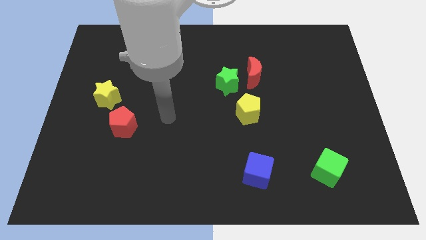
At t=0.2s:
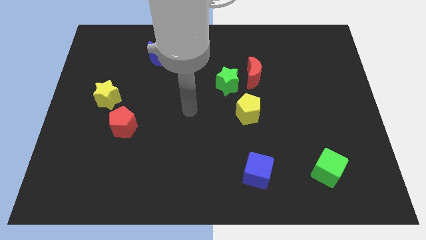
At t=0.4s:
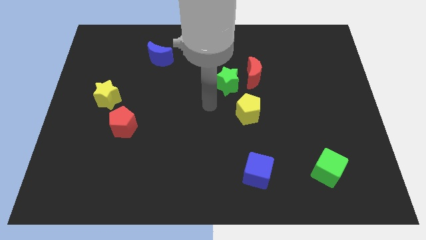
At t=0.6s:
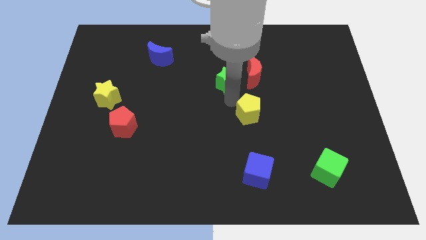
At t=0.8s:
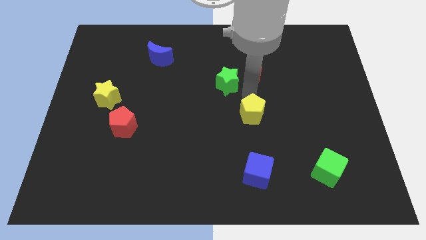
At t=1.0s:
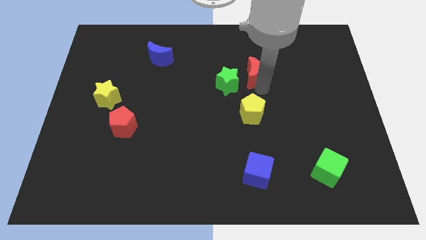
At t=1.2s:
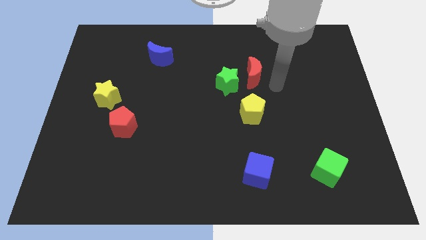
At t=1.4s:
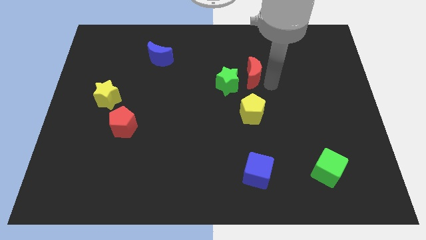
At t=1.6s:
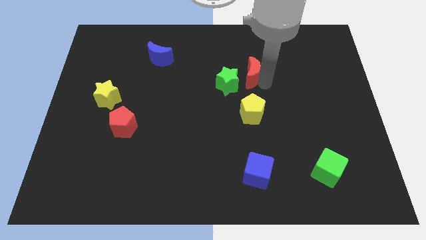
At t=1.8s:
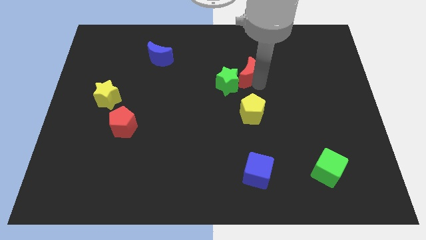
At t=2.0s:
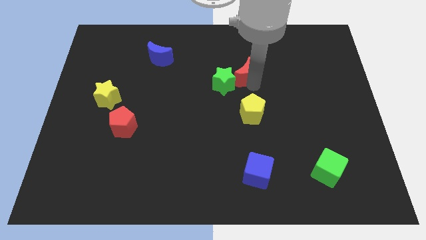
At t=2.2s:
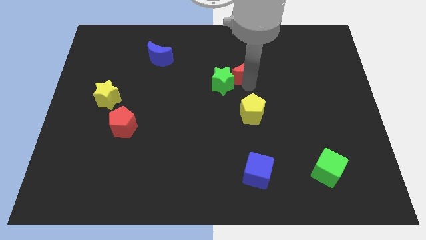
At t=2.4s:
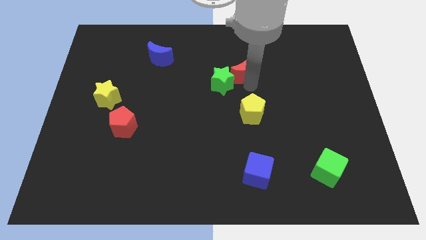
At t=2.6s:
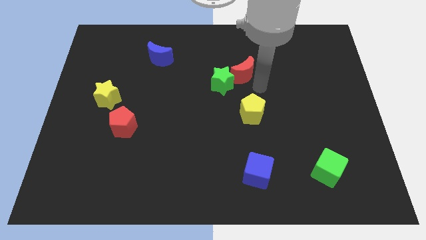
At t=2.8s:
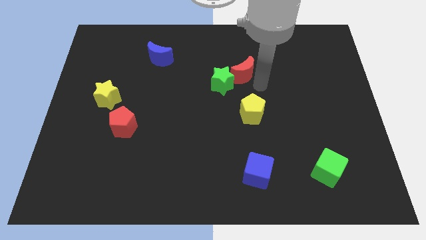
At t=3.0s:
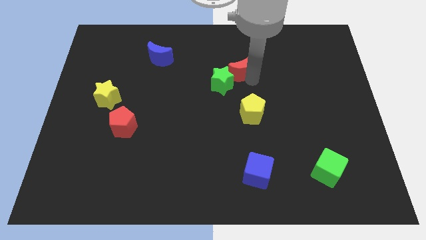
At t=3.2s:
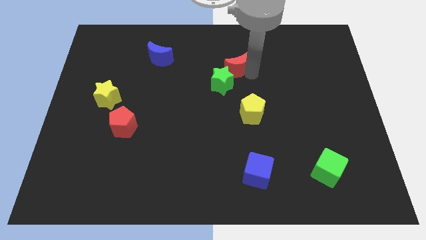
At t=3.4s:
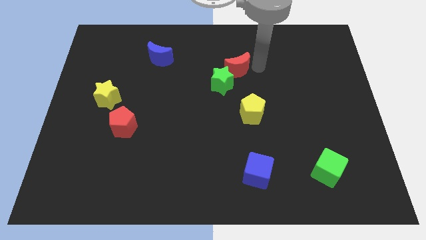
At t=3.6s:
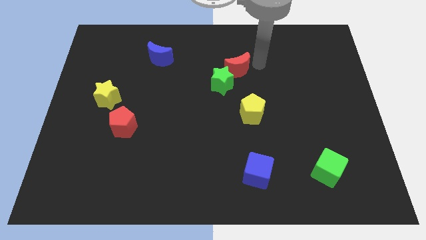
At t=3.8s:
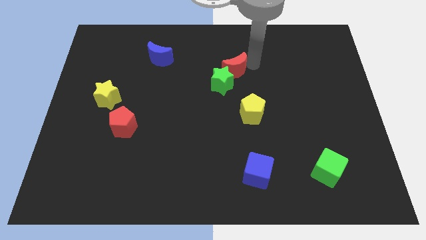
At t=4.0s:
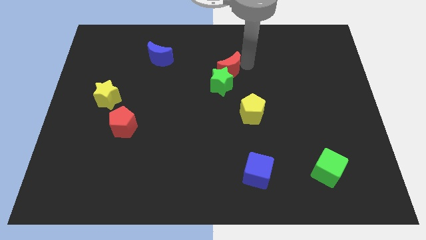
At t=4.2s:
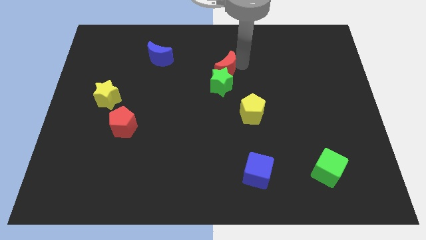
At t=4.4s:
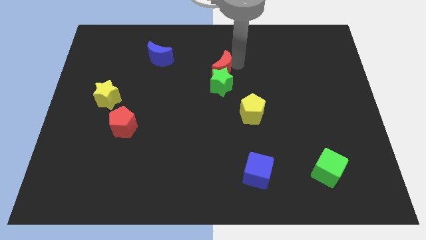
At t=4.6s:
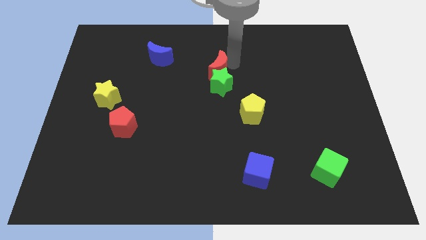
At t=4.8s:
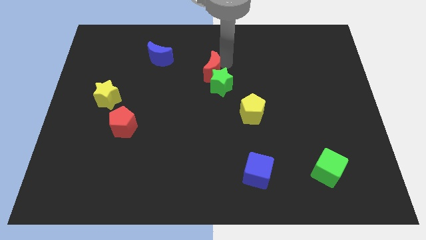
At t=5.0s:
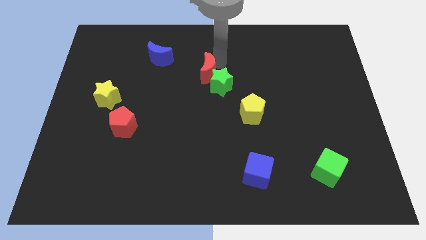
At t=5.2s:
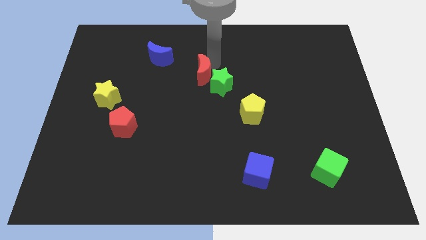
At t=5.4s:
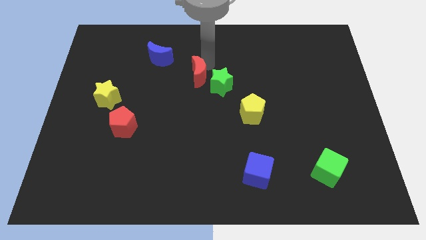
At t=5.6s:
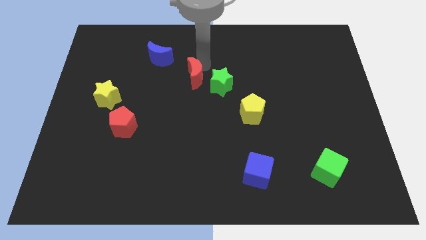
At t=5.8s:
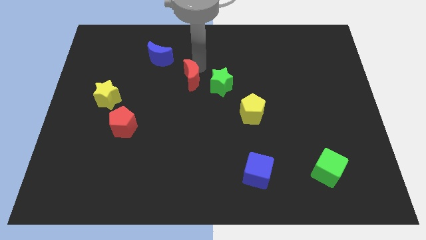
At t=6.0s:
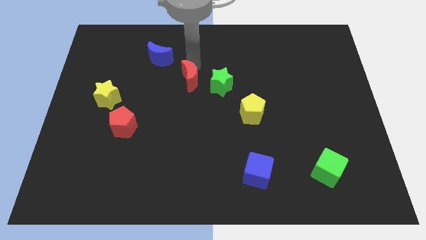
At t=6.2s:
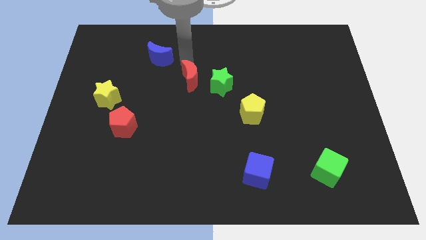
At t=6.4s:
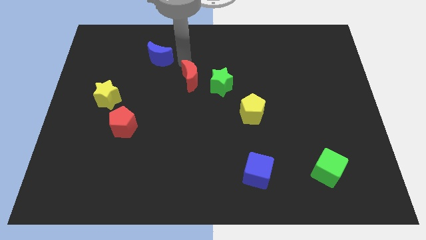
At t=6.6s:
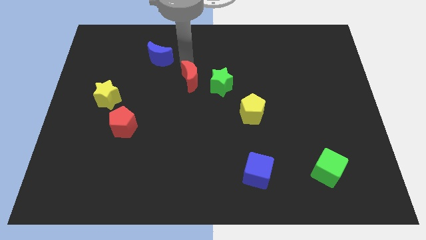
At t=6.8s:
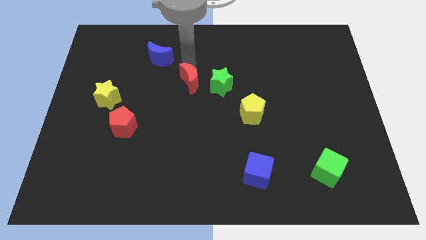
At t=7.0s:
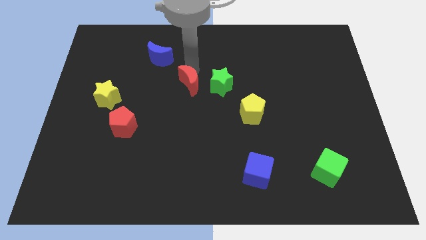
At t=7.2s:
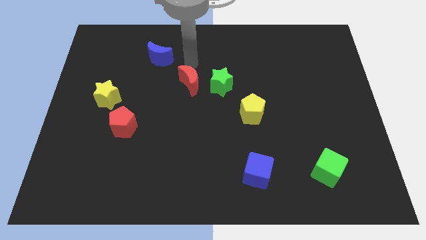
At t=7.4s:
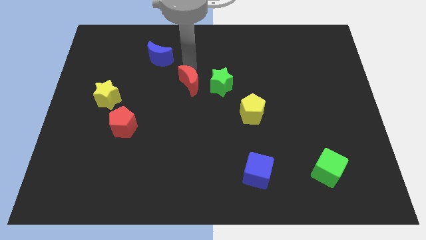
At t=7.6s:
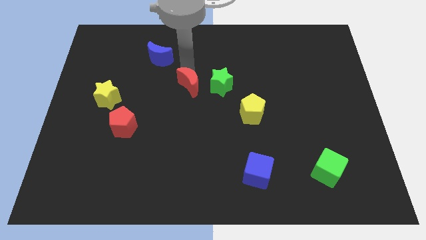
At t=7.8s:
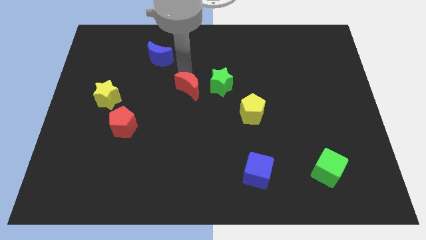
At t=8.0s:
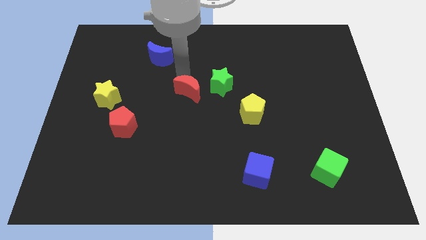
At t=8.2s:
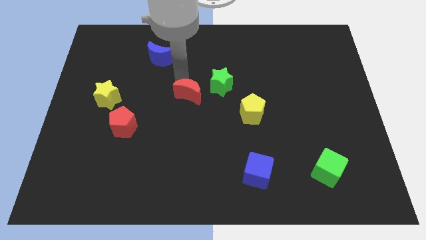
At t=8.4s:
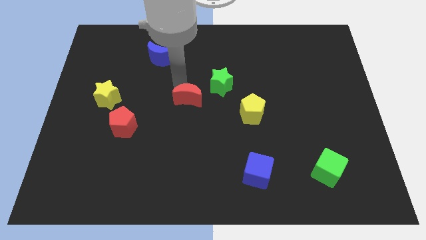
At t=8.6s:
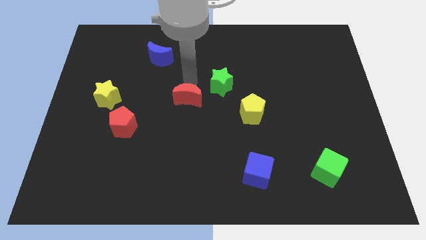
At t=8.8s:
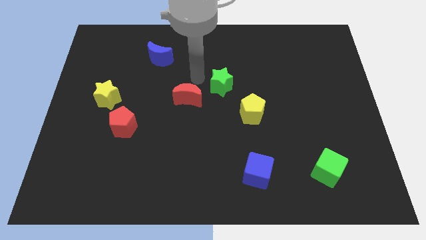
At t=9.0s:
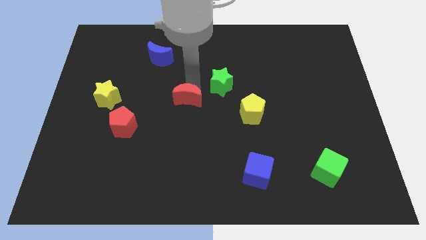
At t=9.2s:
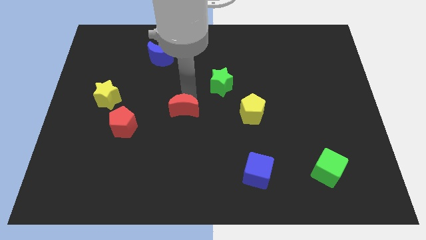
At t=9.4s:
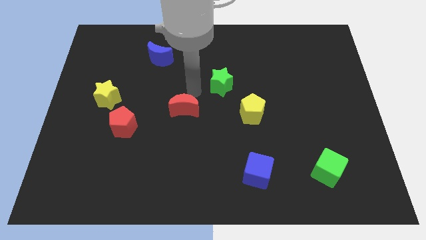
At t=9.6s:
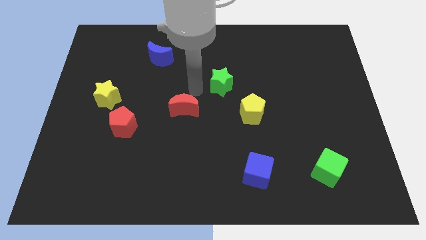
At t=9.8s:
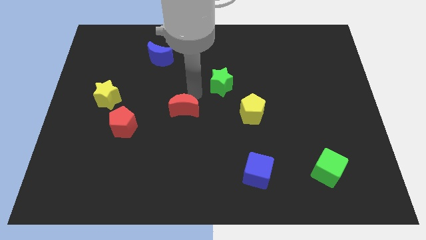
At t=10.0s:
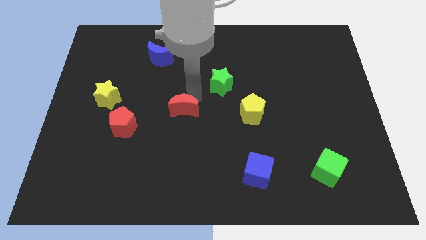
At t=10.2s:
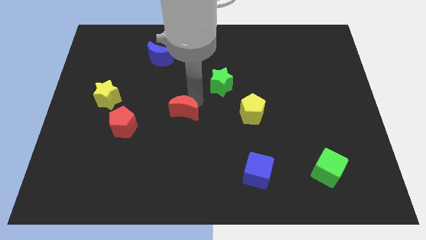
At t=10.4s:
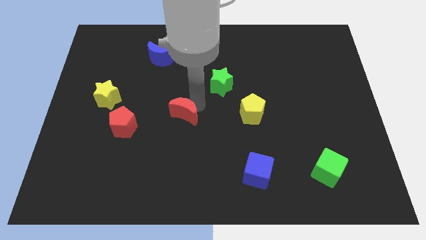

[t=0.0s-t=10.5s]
slide the red moon downwards and then to the left

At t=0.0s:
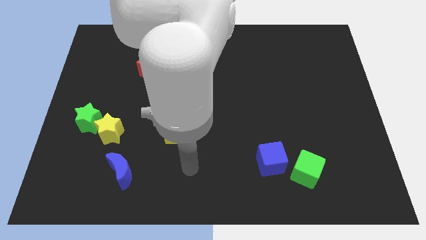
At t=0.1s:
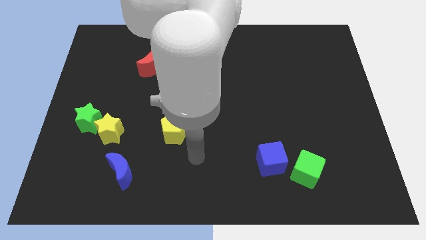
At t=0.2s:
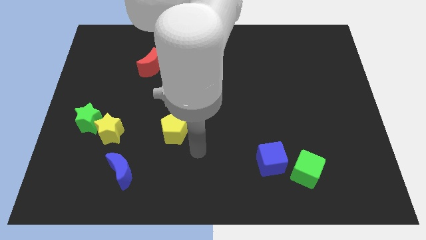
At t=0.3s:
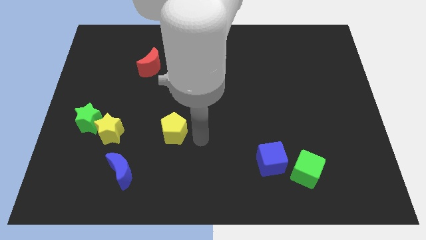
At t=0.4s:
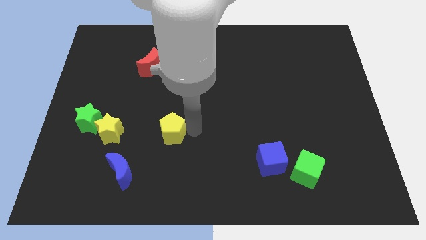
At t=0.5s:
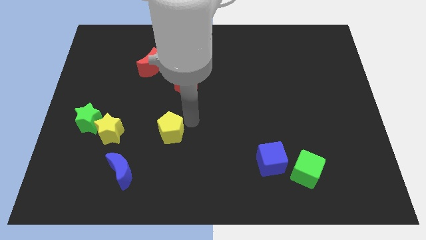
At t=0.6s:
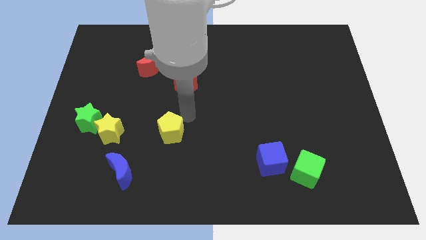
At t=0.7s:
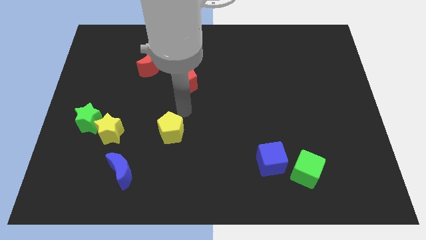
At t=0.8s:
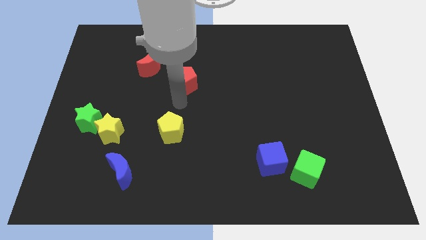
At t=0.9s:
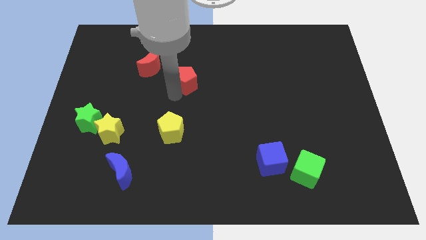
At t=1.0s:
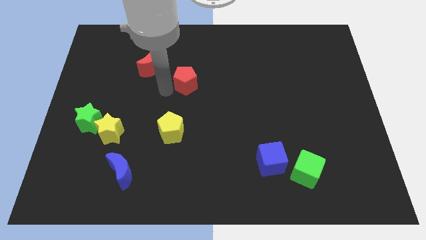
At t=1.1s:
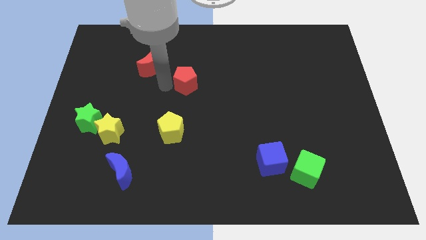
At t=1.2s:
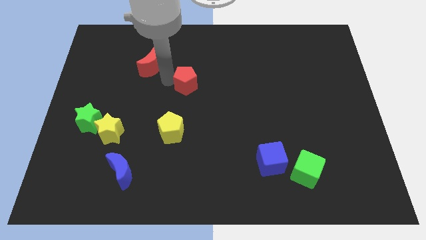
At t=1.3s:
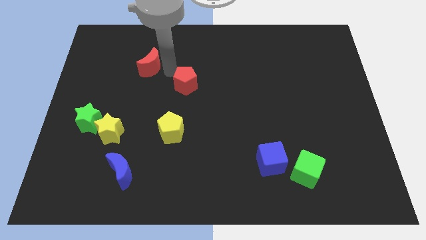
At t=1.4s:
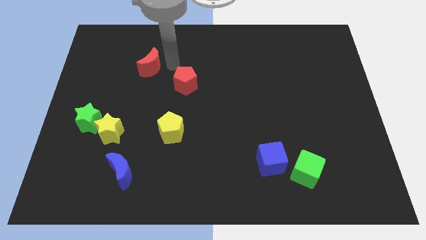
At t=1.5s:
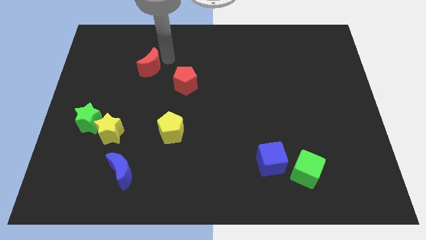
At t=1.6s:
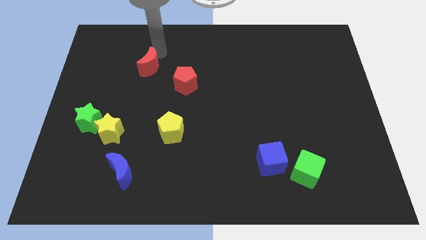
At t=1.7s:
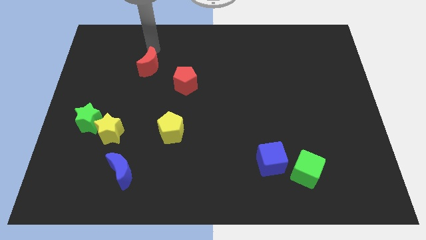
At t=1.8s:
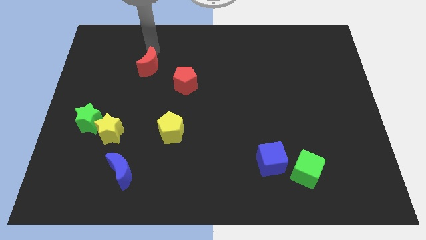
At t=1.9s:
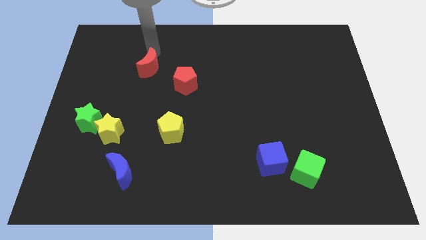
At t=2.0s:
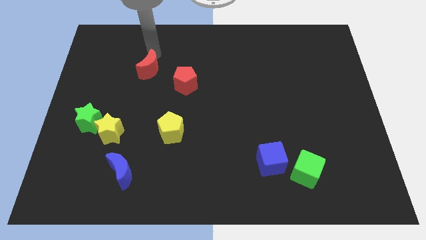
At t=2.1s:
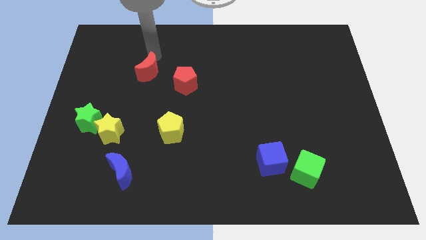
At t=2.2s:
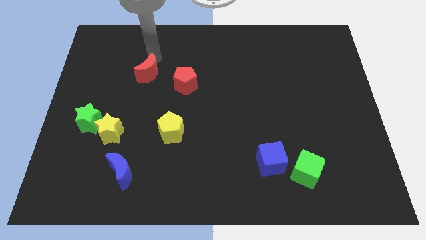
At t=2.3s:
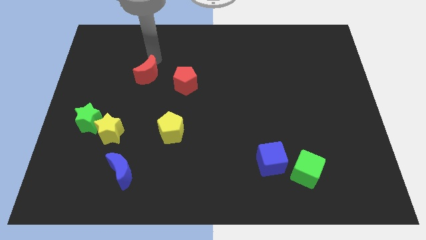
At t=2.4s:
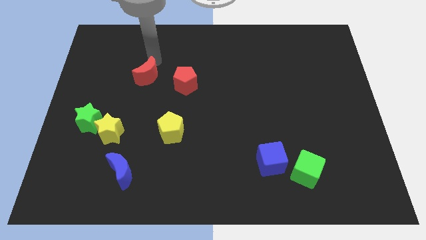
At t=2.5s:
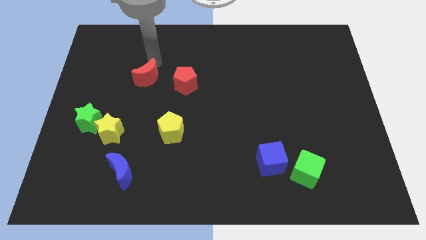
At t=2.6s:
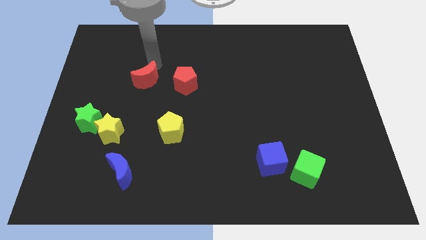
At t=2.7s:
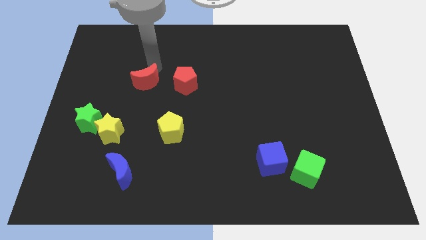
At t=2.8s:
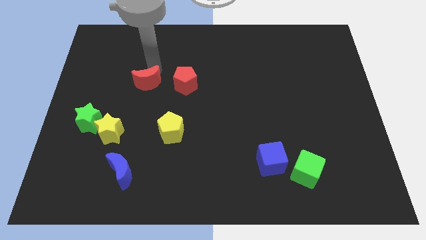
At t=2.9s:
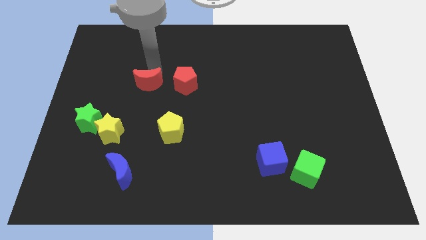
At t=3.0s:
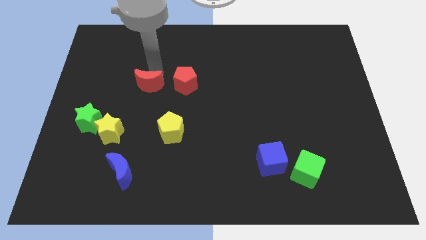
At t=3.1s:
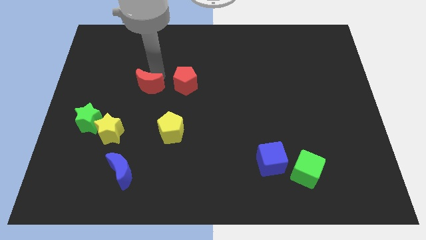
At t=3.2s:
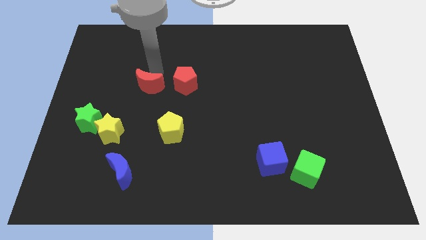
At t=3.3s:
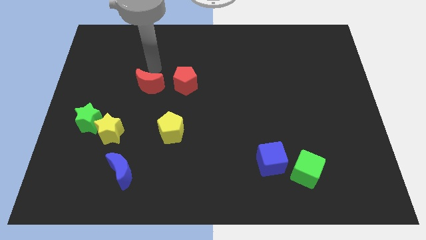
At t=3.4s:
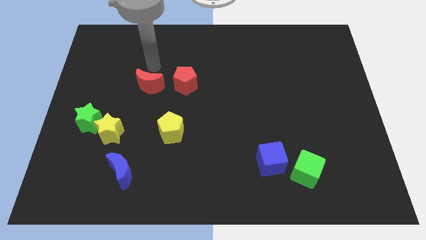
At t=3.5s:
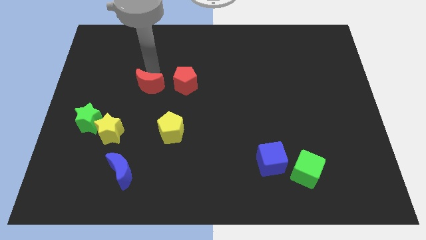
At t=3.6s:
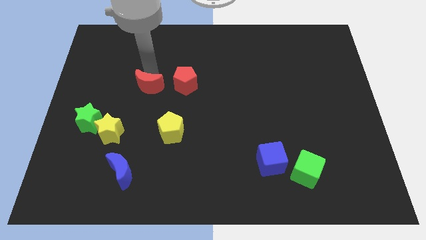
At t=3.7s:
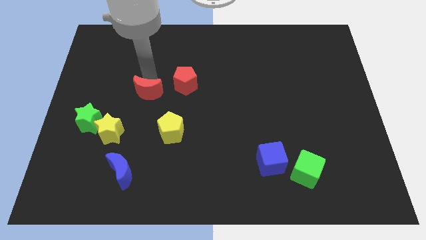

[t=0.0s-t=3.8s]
slightly move the red moon downwards
